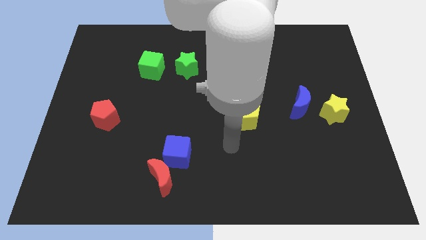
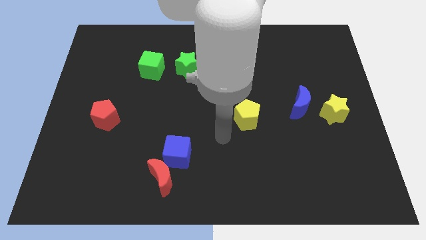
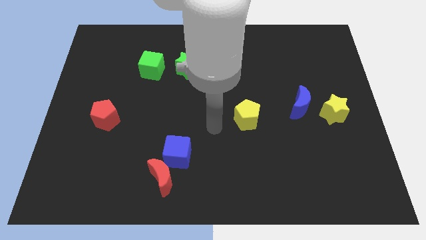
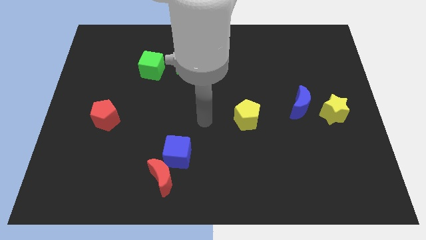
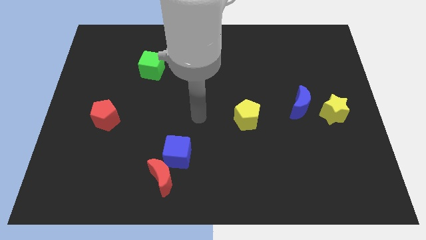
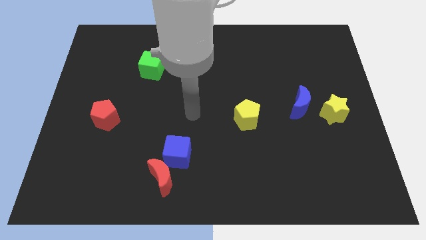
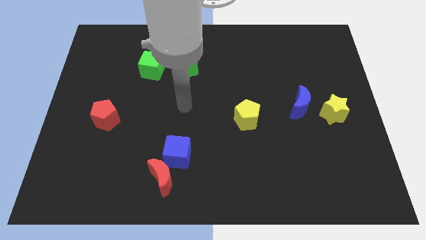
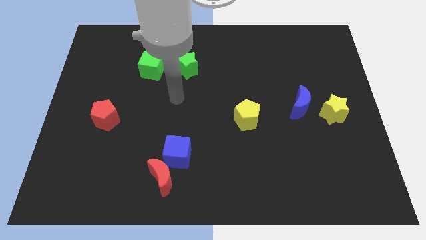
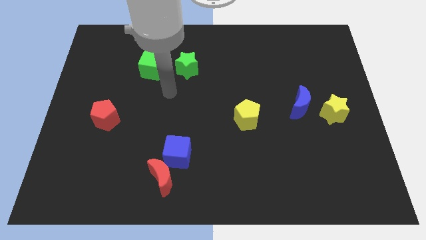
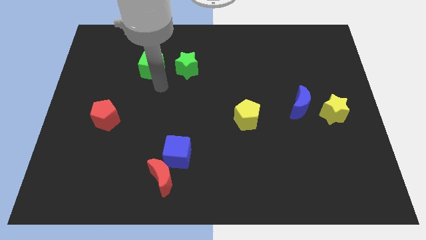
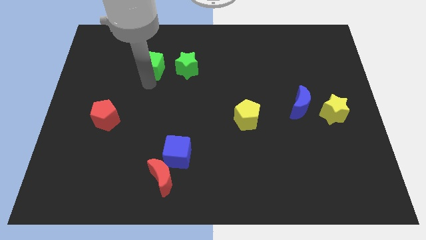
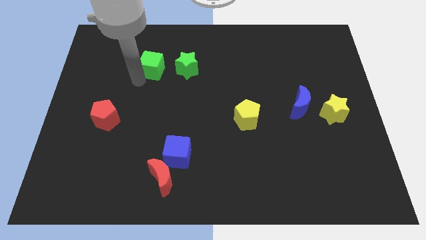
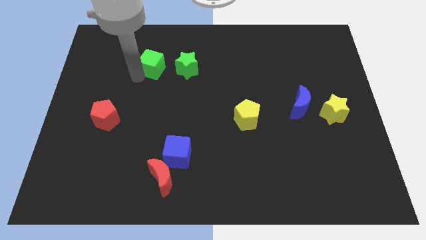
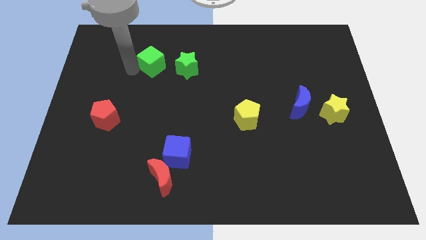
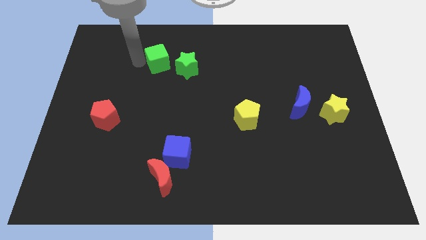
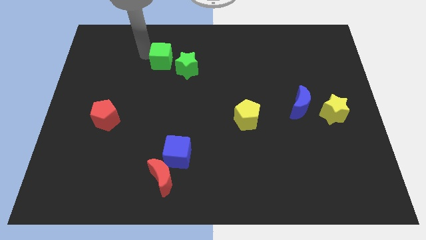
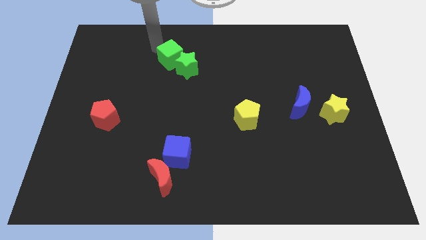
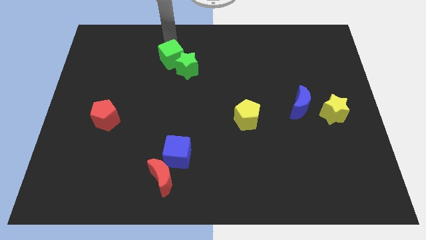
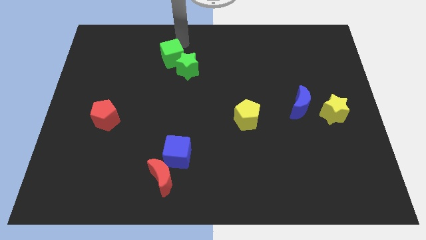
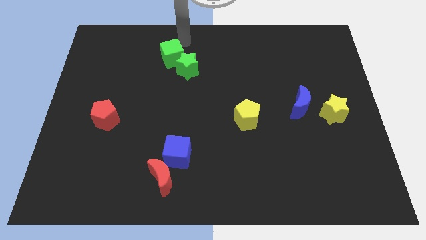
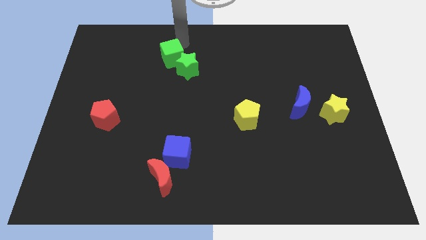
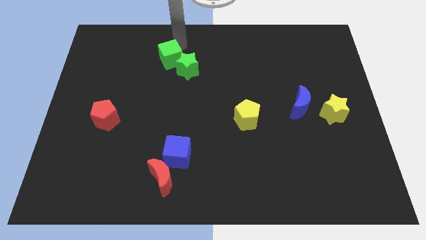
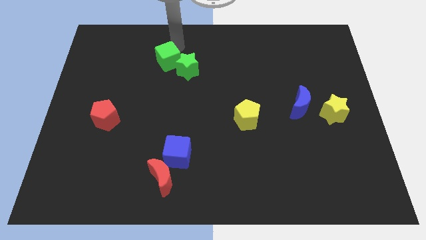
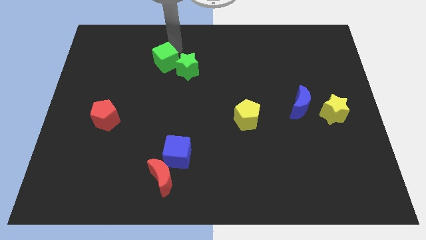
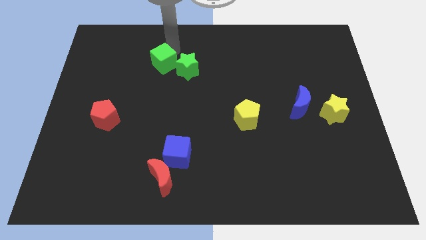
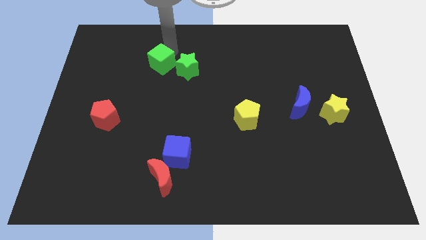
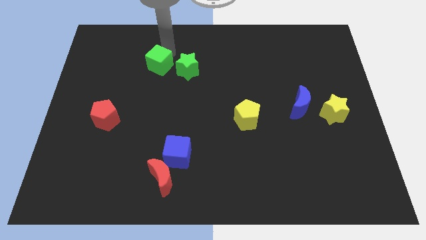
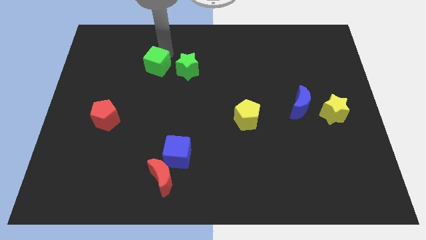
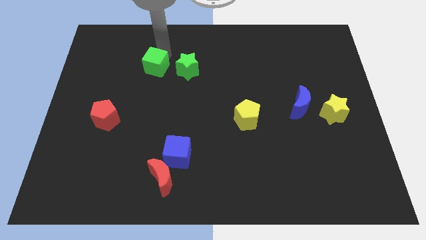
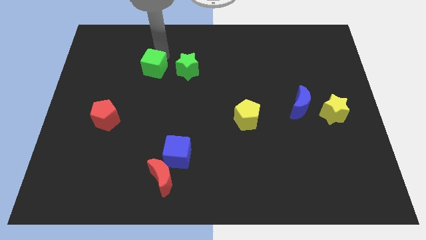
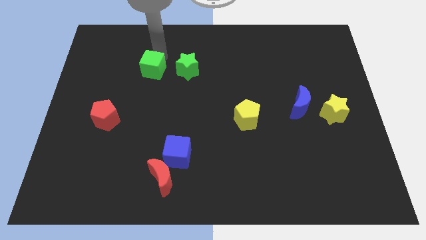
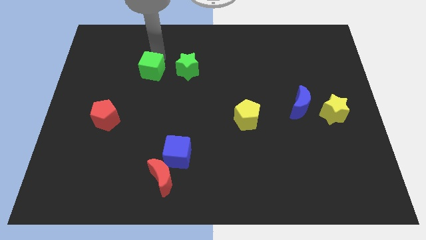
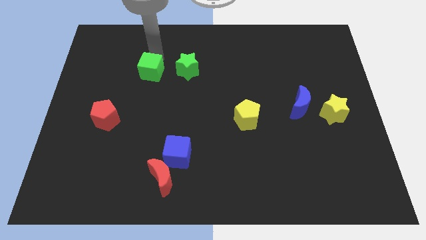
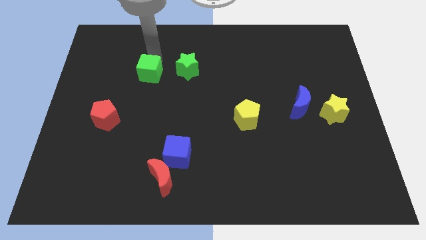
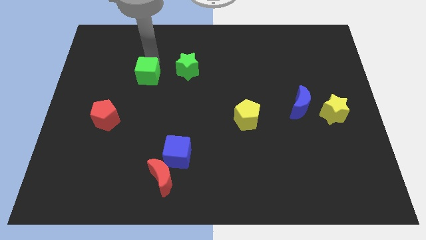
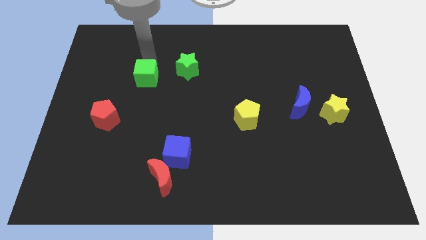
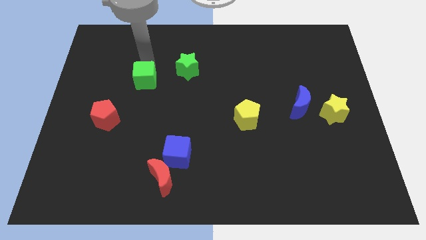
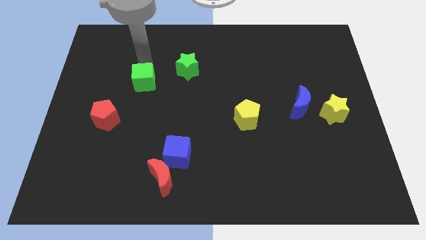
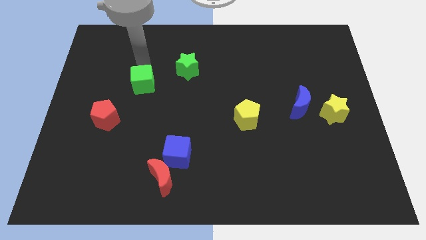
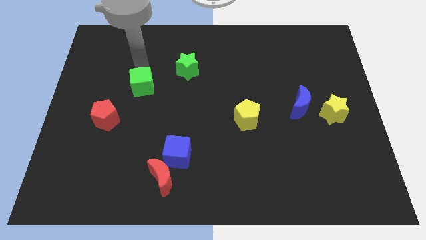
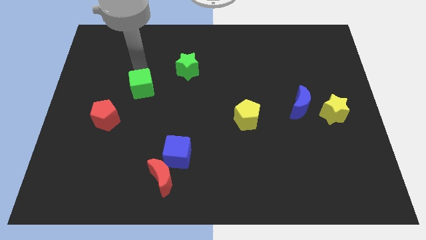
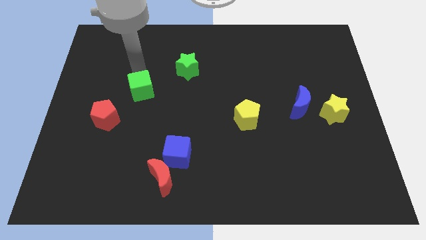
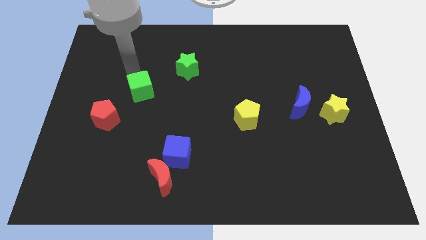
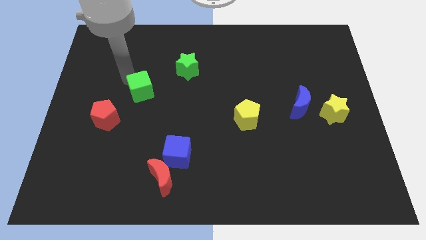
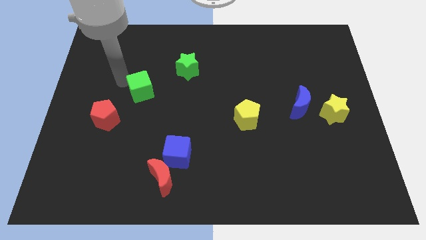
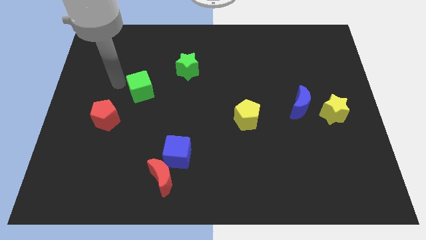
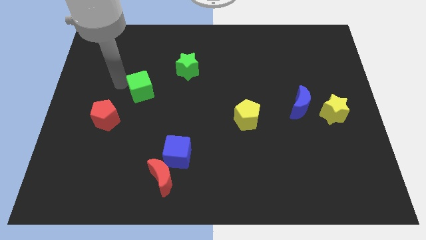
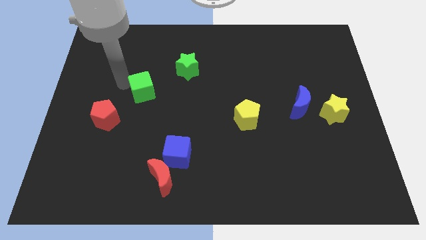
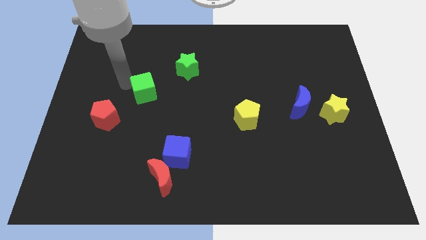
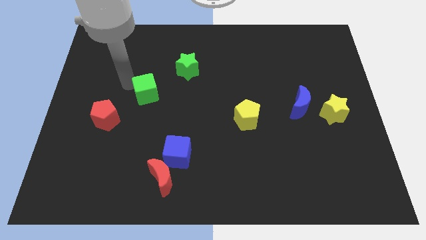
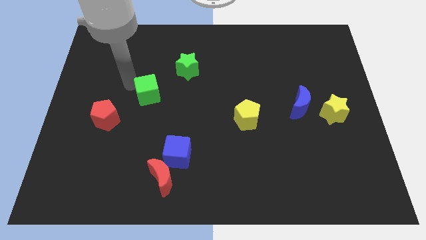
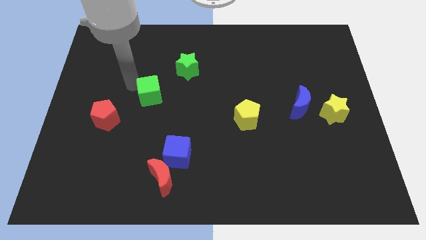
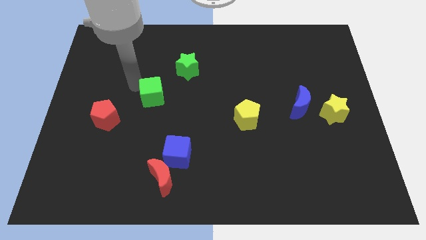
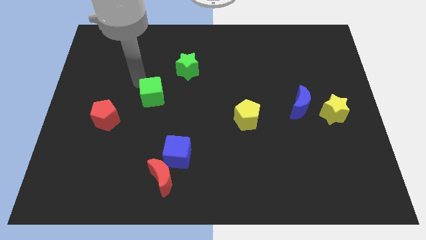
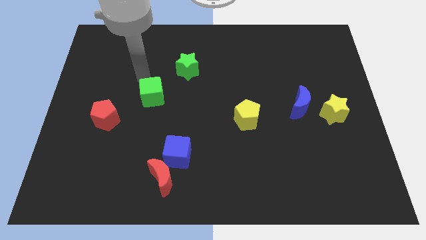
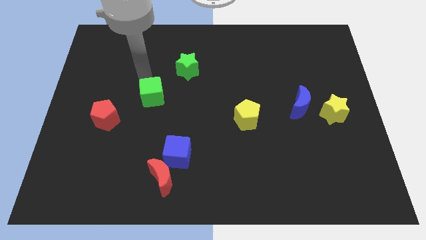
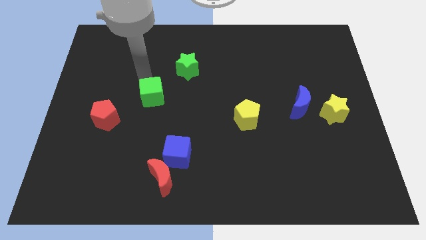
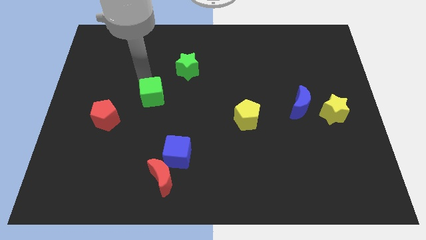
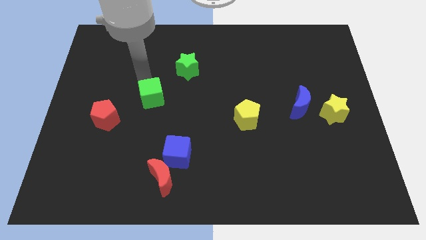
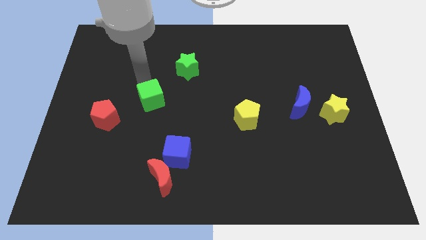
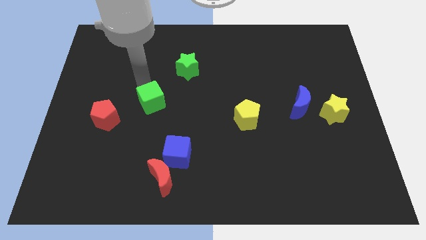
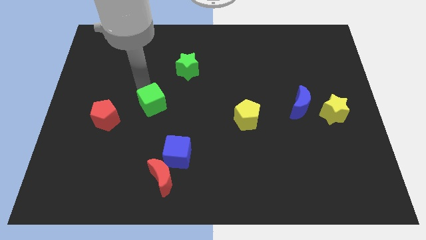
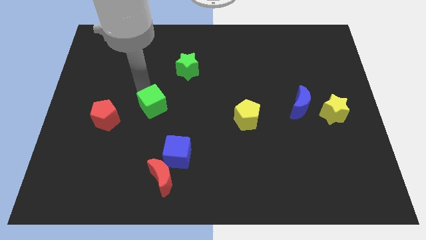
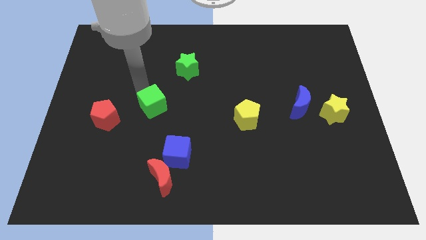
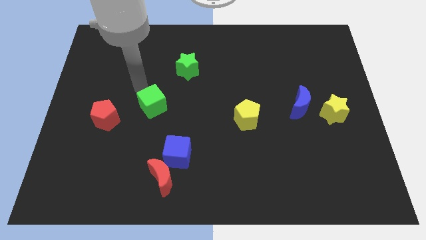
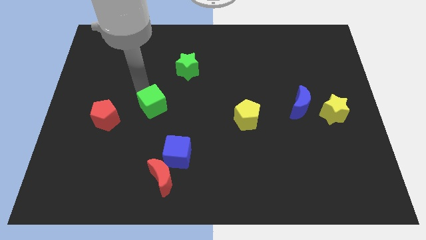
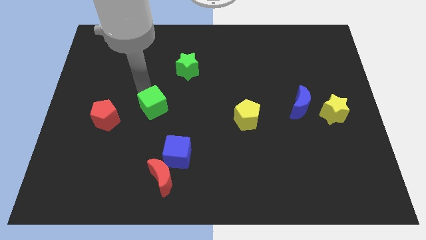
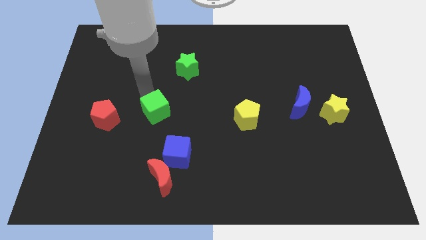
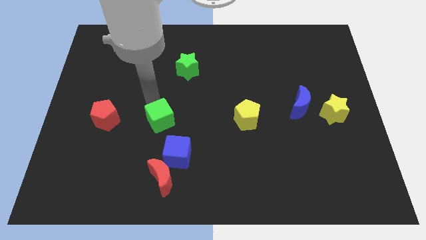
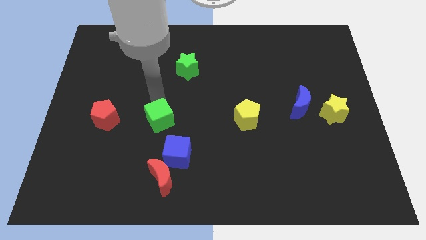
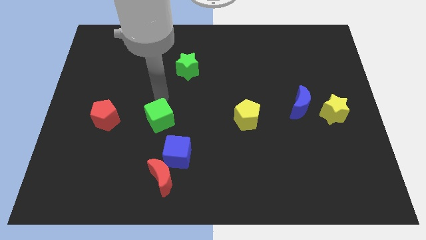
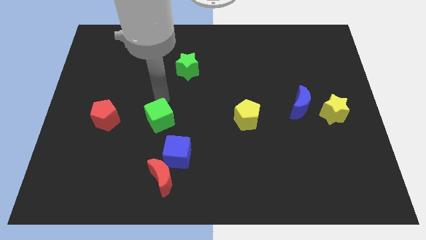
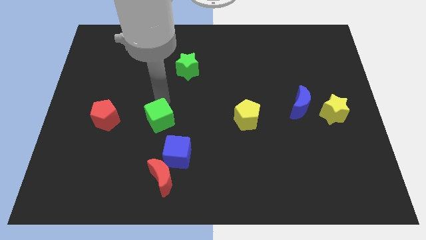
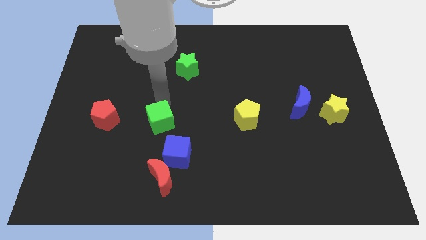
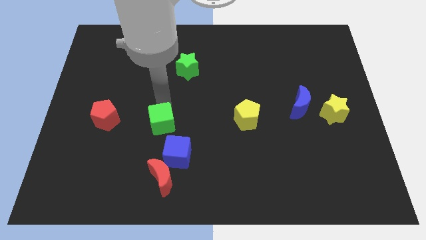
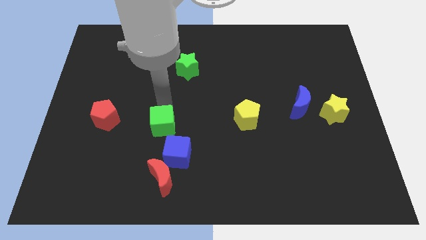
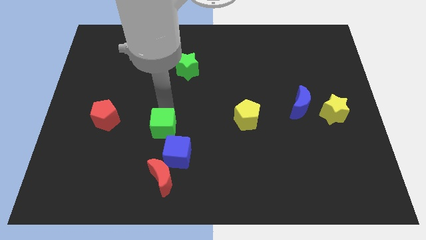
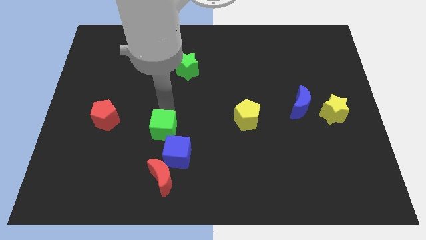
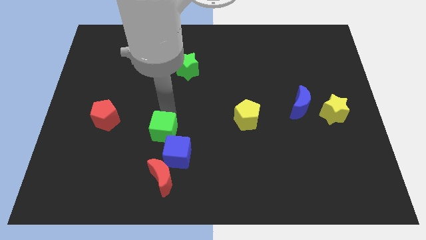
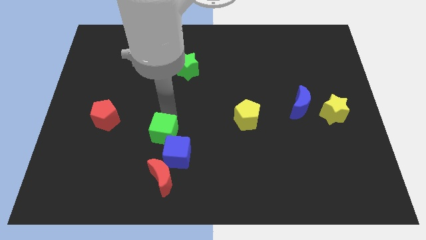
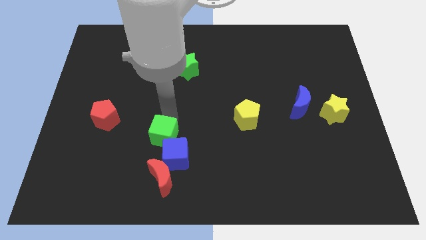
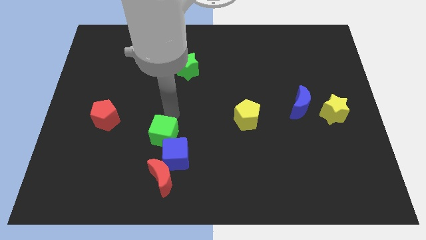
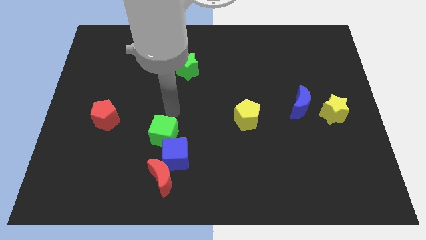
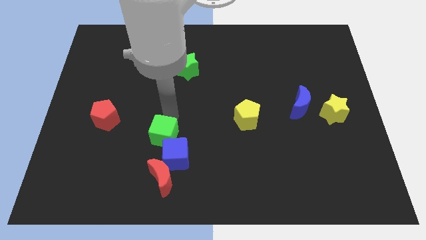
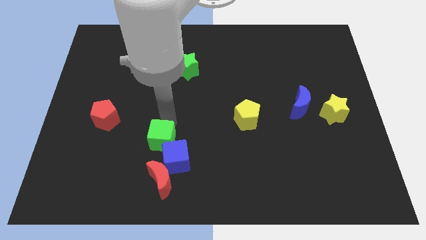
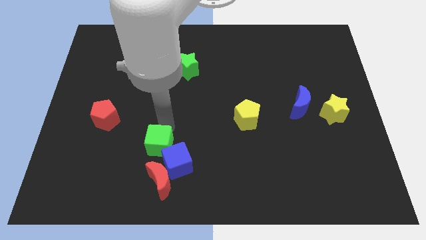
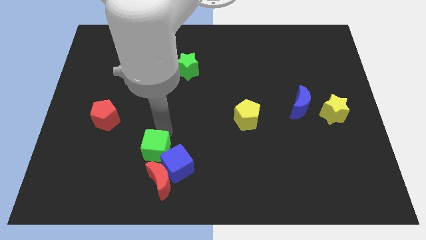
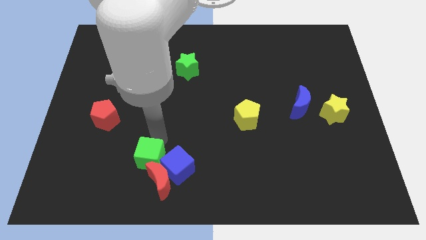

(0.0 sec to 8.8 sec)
slide the green cube next to the red moon
